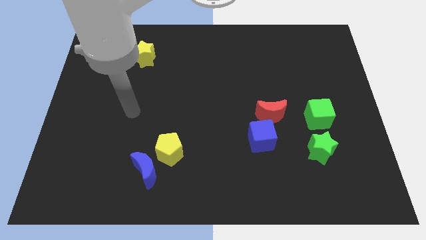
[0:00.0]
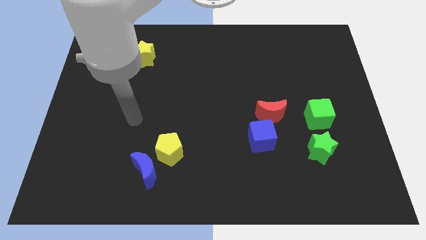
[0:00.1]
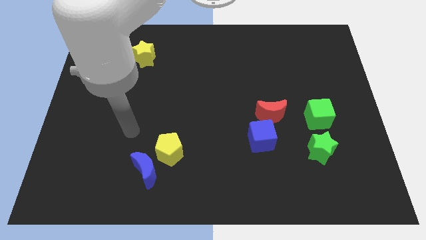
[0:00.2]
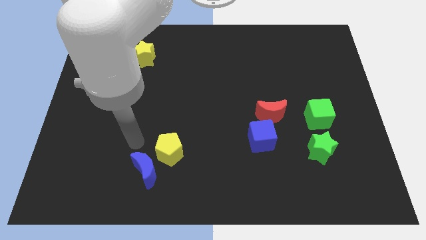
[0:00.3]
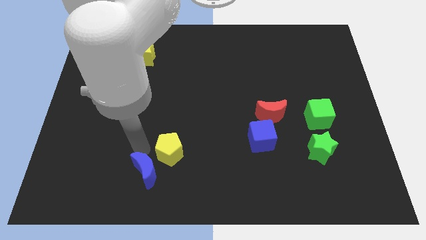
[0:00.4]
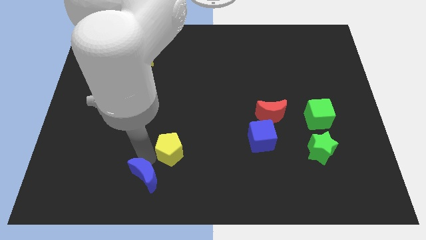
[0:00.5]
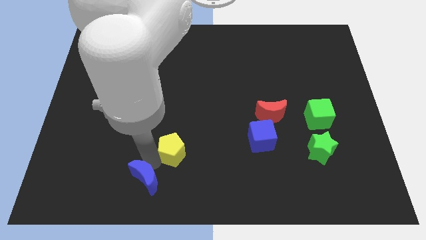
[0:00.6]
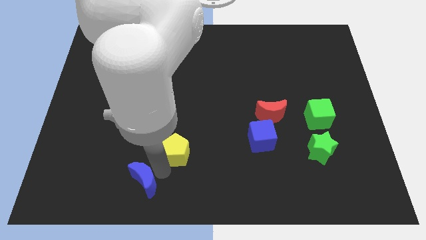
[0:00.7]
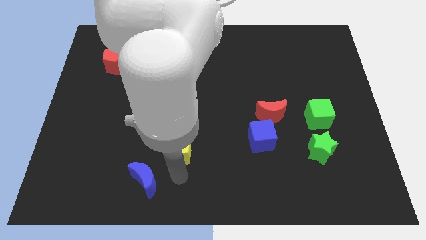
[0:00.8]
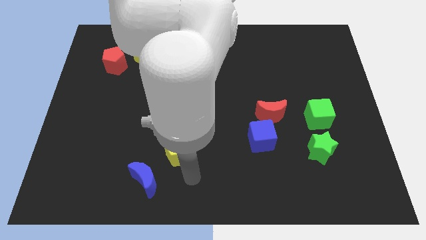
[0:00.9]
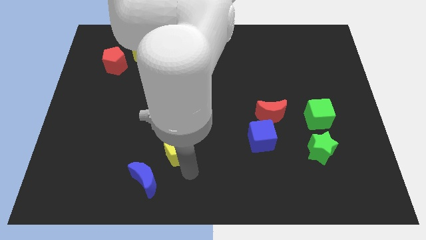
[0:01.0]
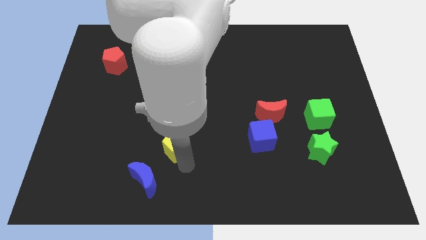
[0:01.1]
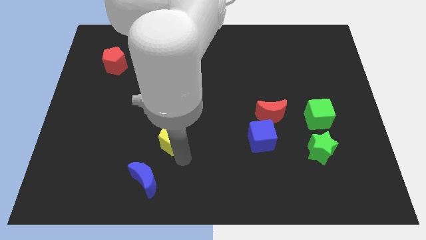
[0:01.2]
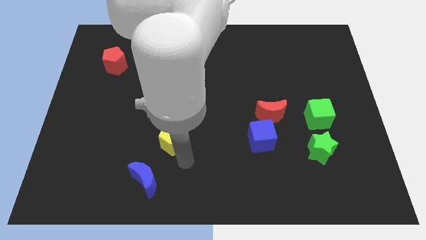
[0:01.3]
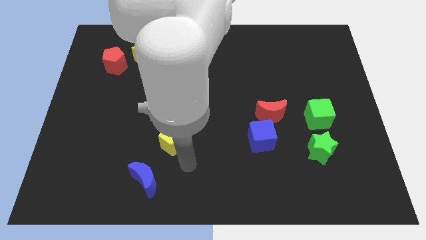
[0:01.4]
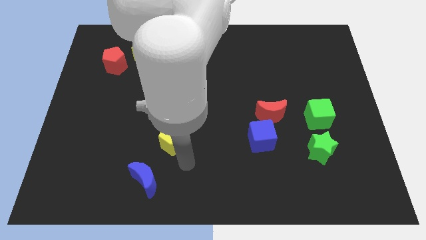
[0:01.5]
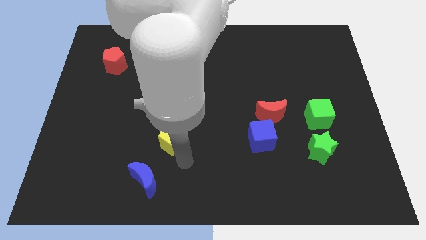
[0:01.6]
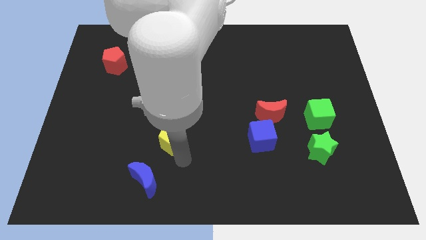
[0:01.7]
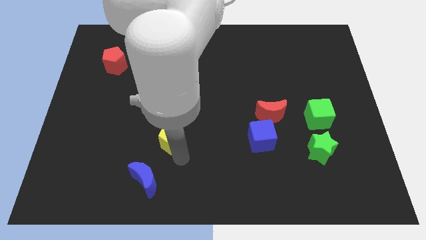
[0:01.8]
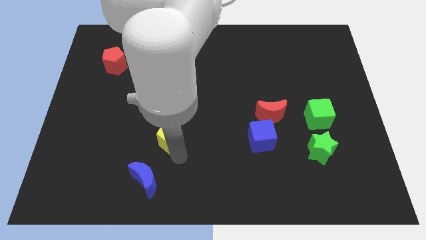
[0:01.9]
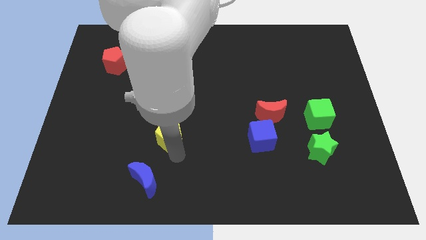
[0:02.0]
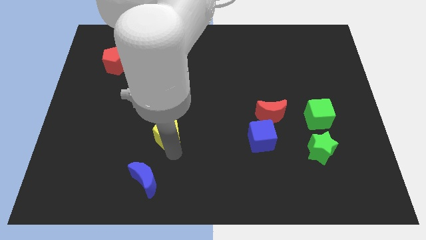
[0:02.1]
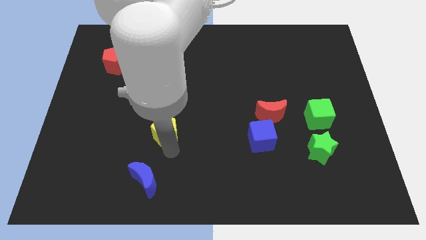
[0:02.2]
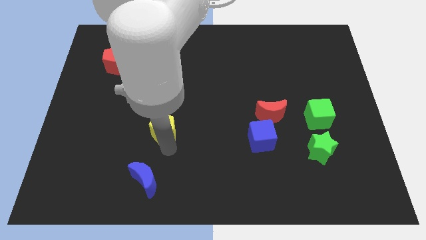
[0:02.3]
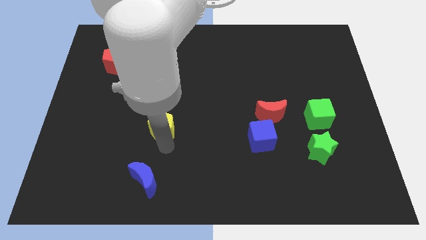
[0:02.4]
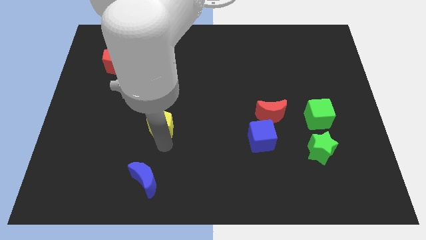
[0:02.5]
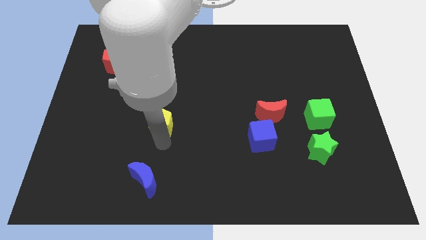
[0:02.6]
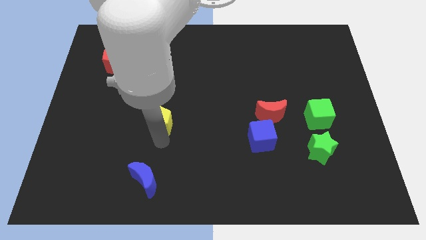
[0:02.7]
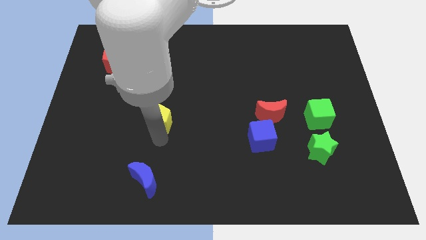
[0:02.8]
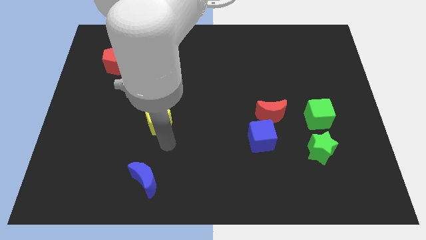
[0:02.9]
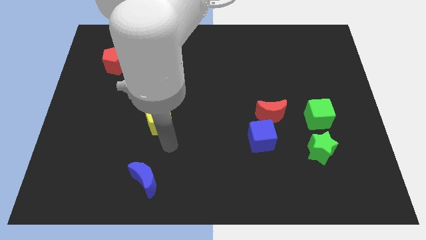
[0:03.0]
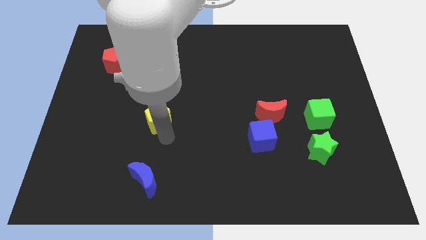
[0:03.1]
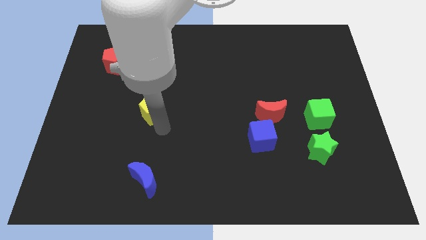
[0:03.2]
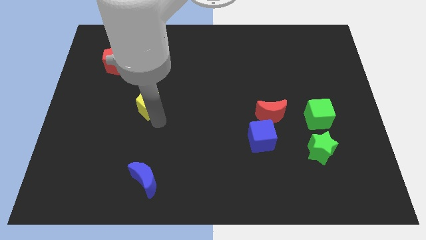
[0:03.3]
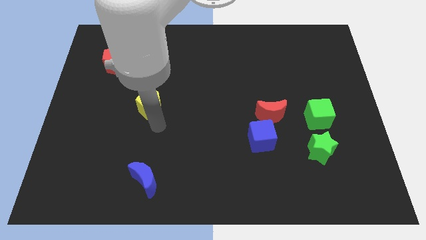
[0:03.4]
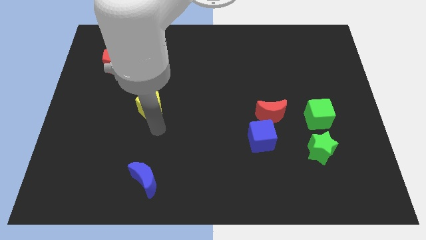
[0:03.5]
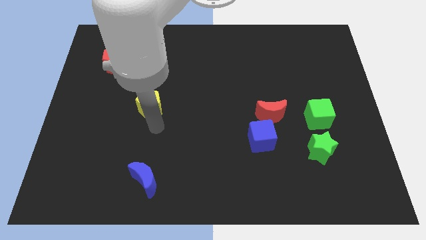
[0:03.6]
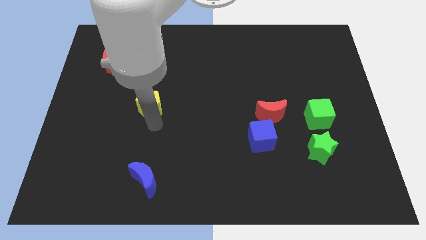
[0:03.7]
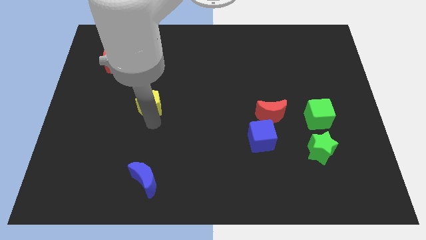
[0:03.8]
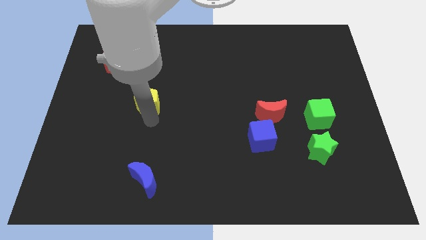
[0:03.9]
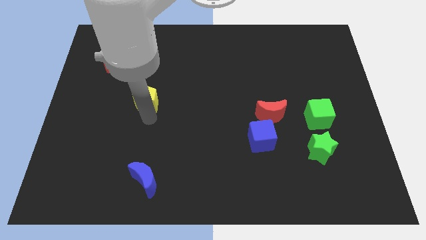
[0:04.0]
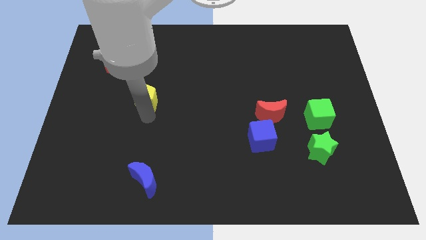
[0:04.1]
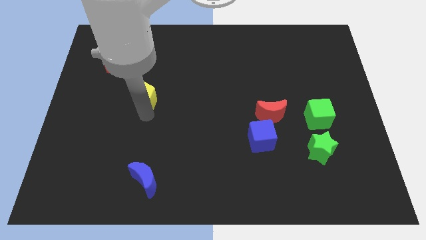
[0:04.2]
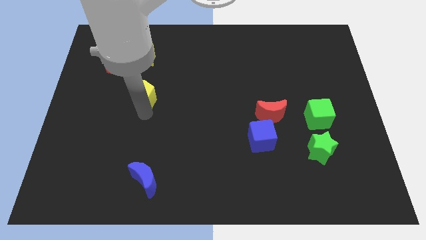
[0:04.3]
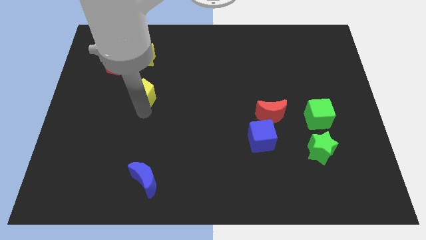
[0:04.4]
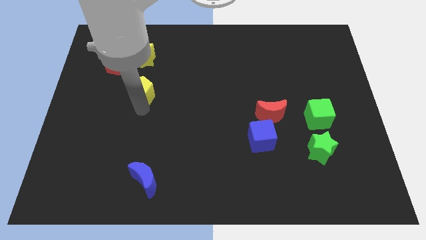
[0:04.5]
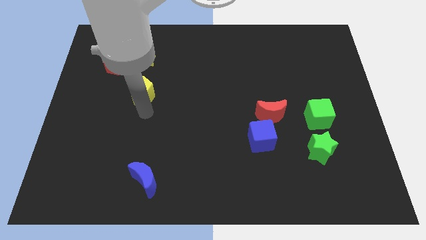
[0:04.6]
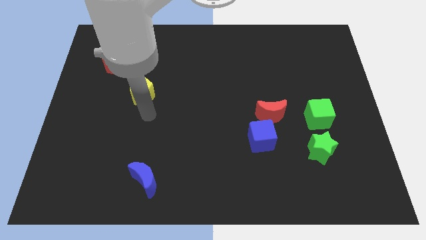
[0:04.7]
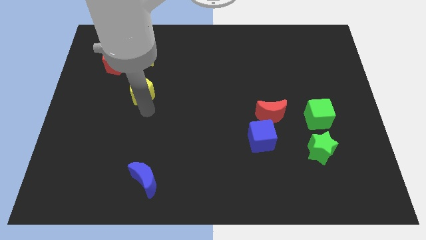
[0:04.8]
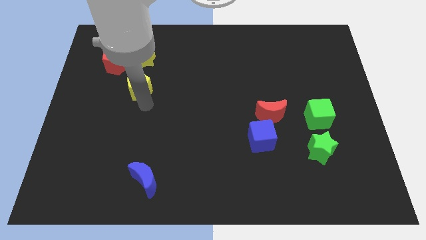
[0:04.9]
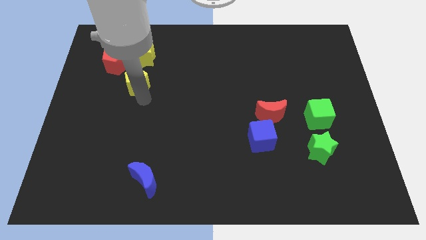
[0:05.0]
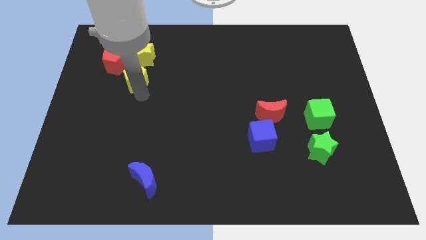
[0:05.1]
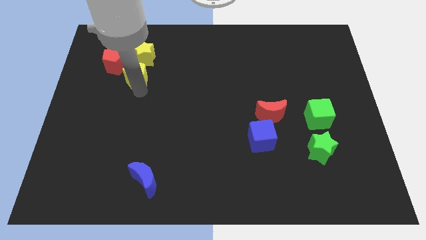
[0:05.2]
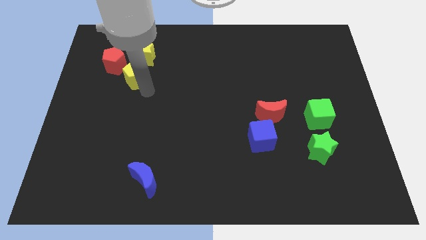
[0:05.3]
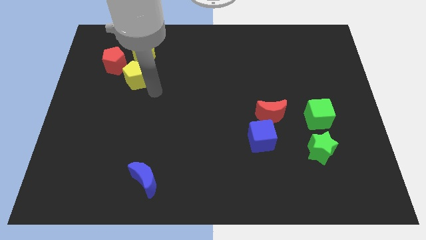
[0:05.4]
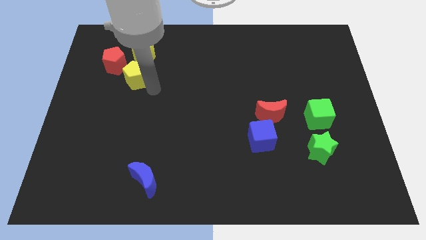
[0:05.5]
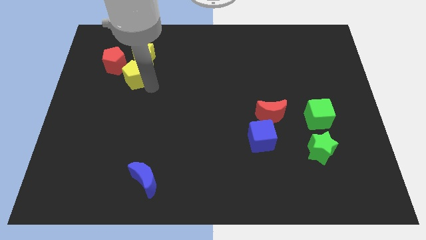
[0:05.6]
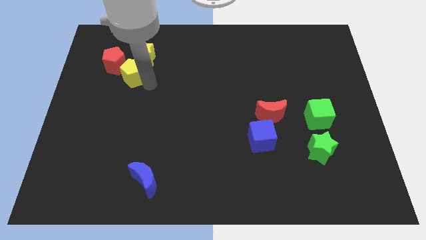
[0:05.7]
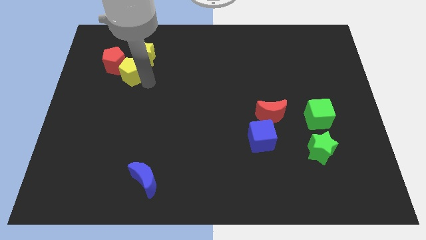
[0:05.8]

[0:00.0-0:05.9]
put the yellow pentagon towards the red pentagon

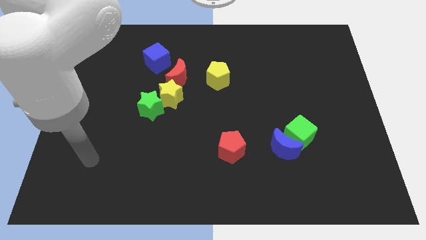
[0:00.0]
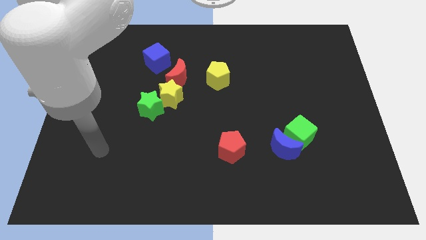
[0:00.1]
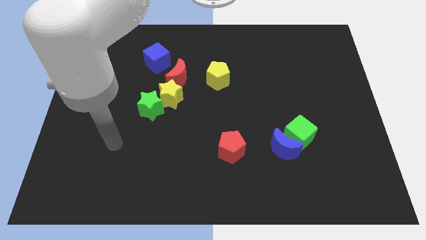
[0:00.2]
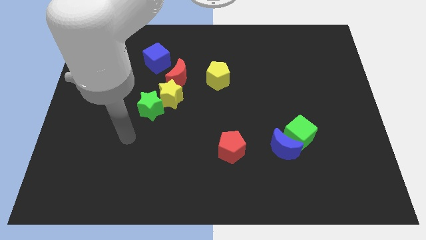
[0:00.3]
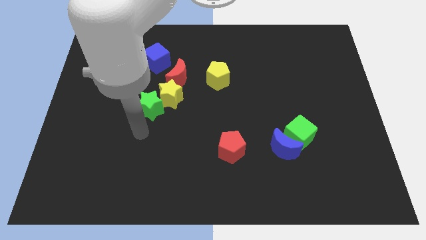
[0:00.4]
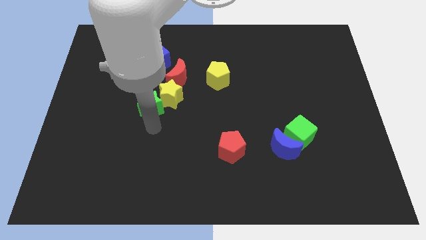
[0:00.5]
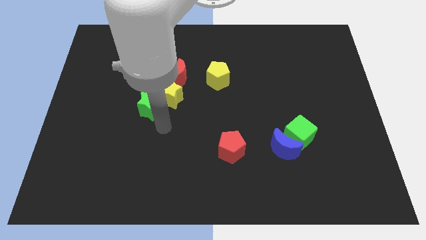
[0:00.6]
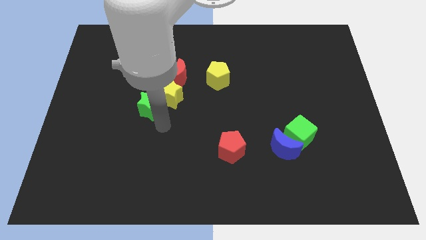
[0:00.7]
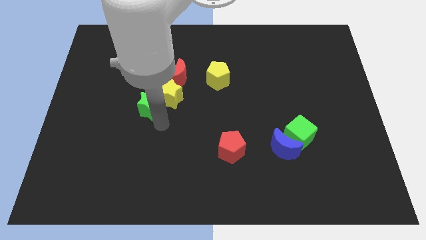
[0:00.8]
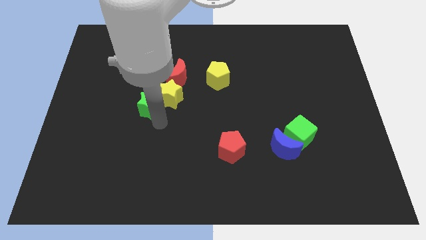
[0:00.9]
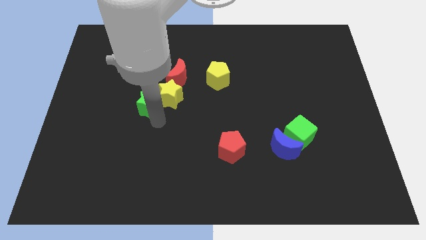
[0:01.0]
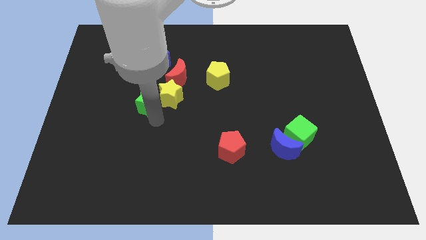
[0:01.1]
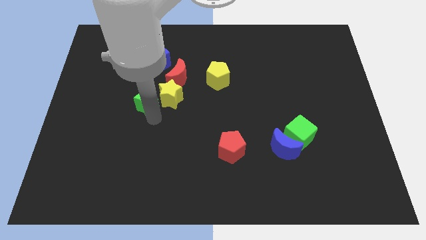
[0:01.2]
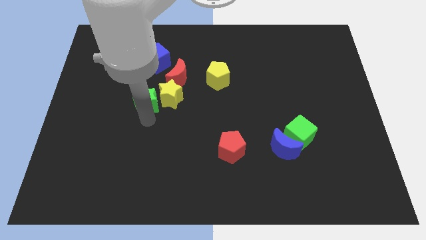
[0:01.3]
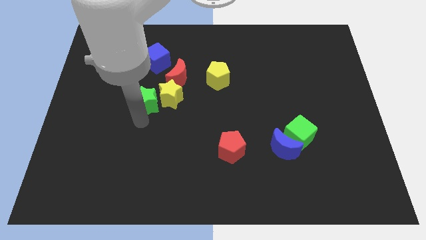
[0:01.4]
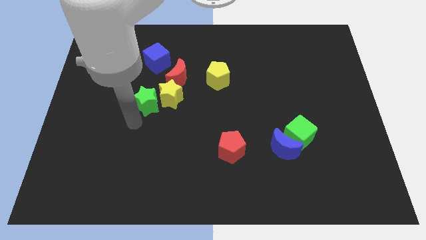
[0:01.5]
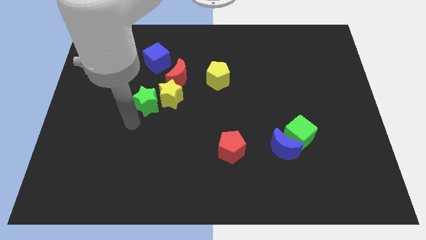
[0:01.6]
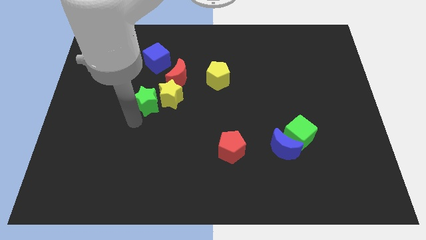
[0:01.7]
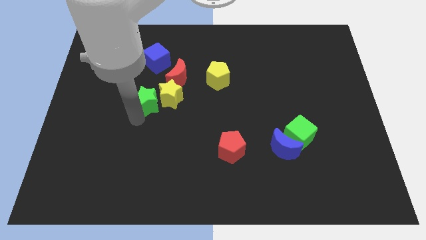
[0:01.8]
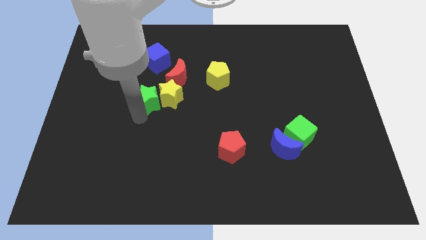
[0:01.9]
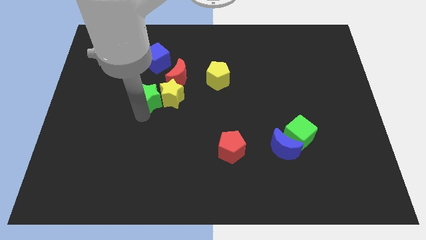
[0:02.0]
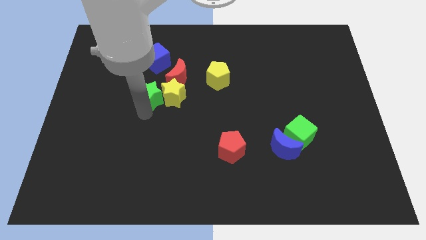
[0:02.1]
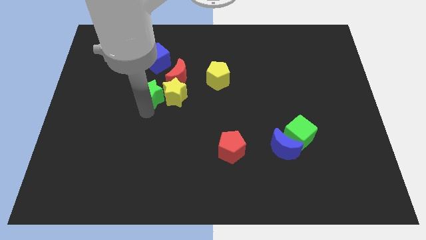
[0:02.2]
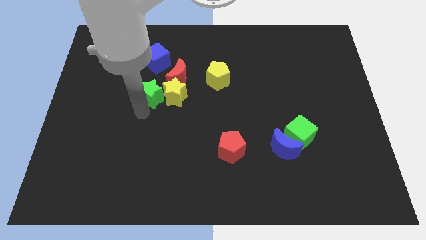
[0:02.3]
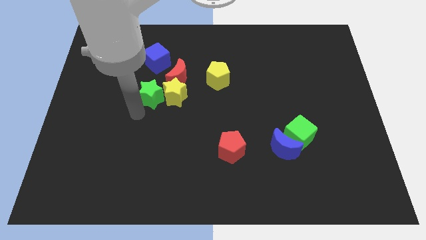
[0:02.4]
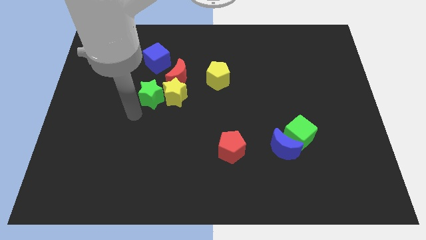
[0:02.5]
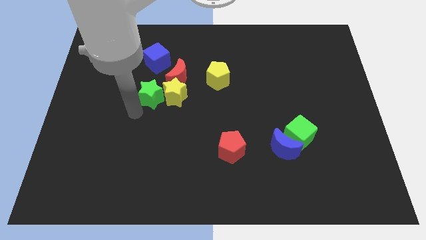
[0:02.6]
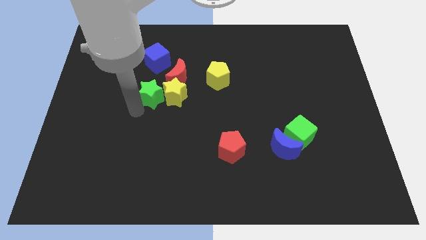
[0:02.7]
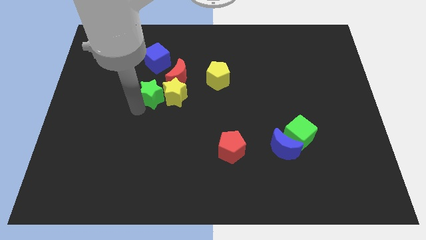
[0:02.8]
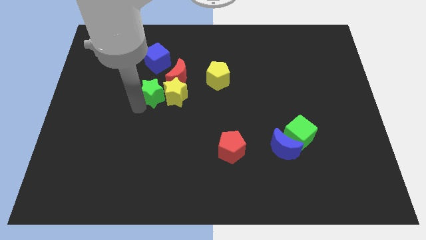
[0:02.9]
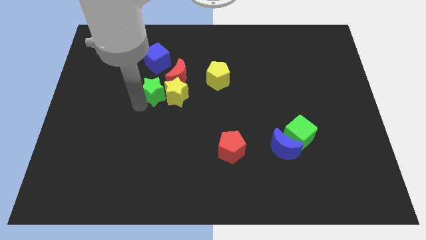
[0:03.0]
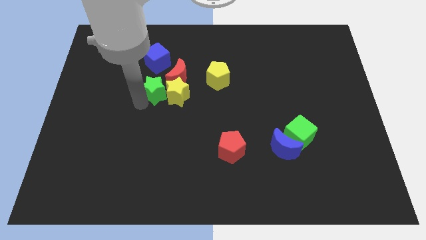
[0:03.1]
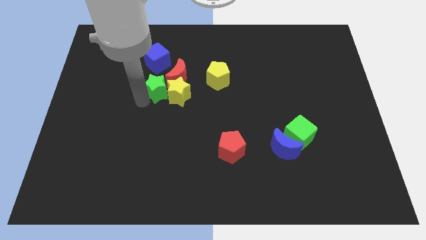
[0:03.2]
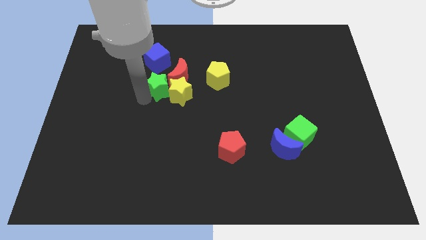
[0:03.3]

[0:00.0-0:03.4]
move the green star to the red moon
